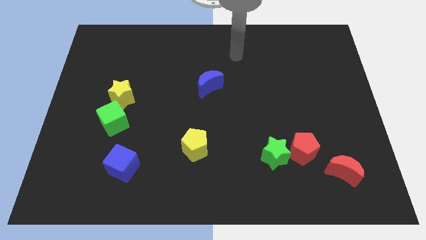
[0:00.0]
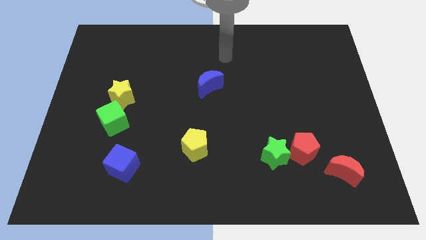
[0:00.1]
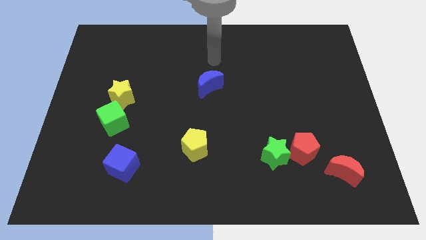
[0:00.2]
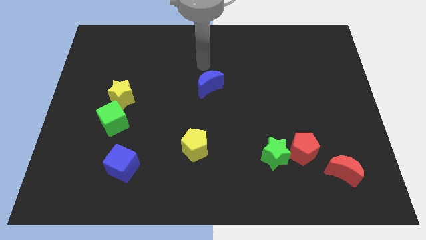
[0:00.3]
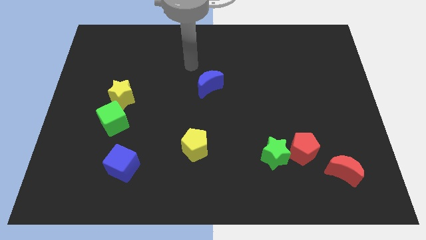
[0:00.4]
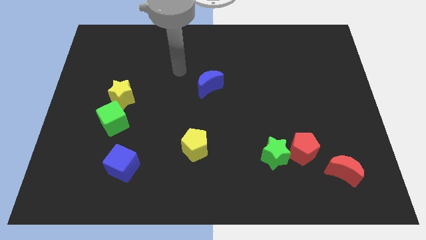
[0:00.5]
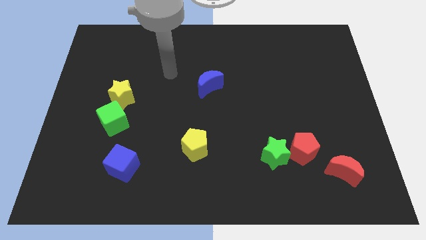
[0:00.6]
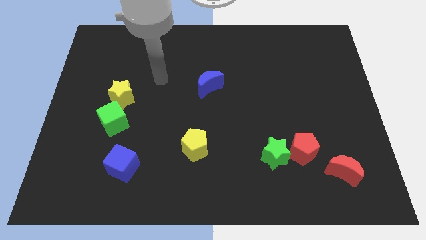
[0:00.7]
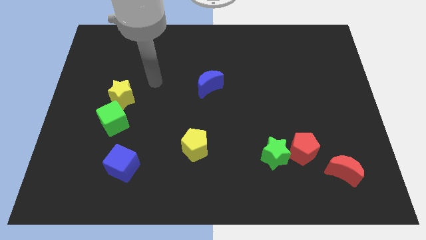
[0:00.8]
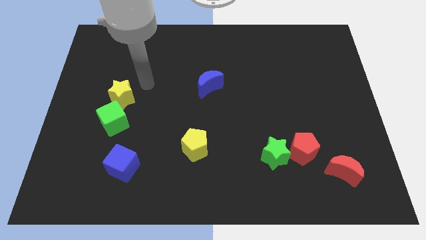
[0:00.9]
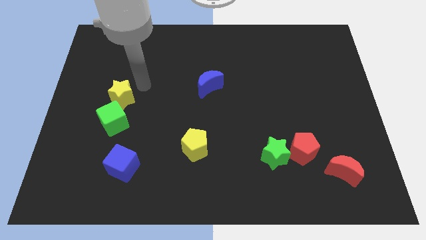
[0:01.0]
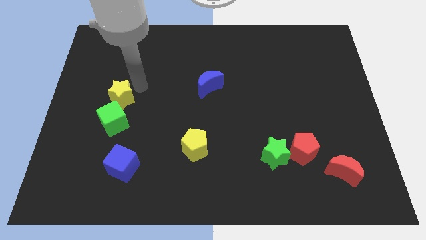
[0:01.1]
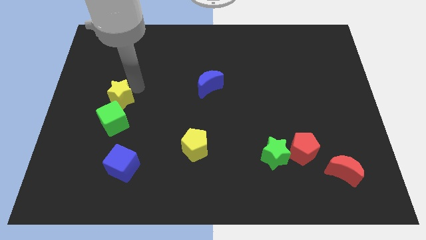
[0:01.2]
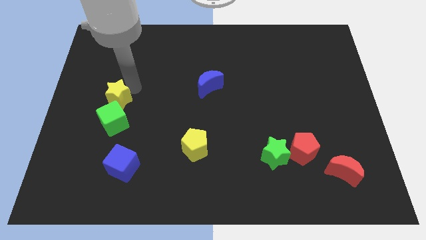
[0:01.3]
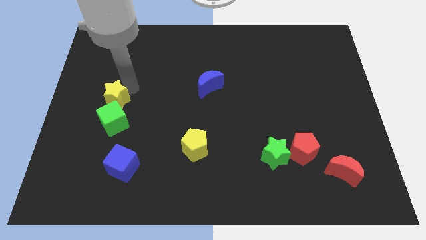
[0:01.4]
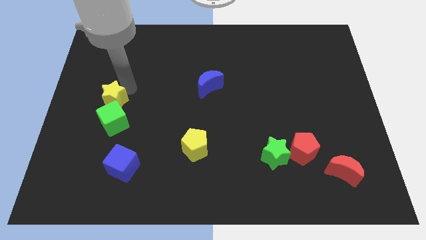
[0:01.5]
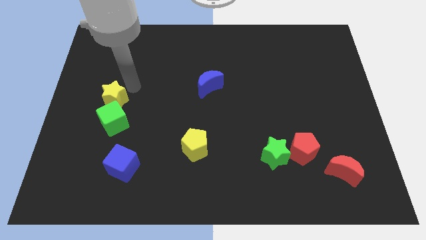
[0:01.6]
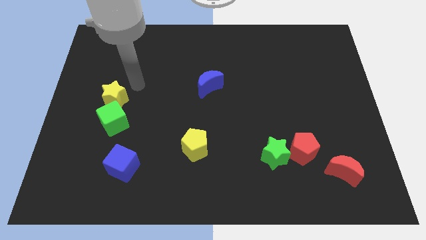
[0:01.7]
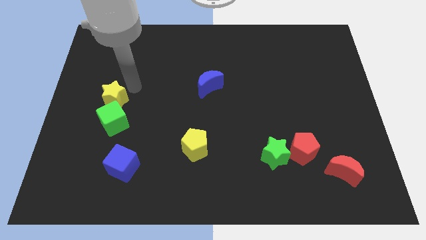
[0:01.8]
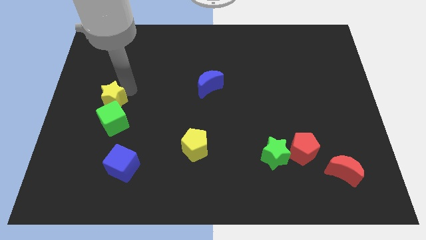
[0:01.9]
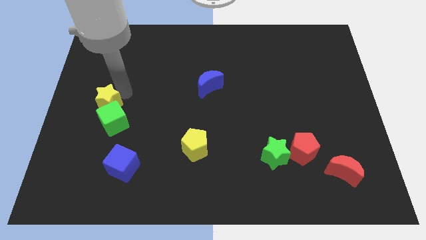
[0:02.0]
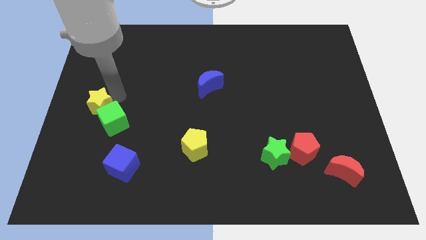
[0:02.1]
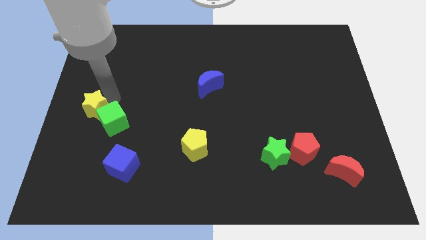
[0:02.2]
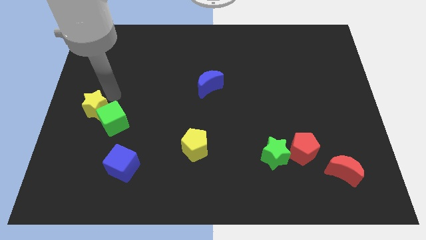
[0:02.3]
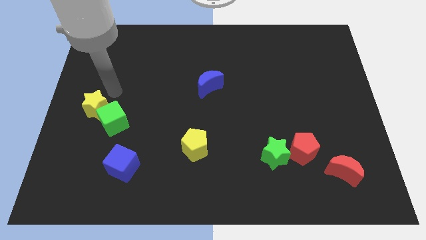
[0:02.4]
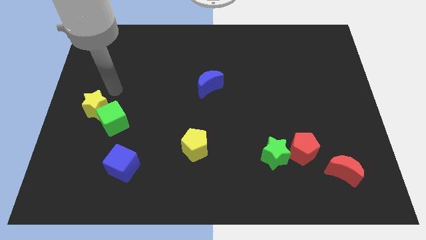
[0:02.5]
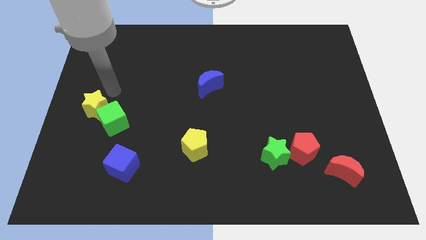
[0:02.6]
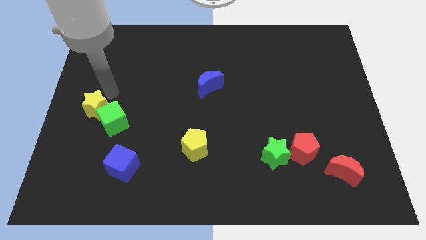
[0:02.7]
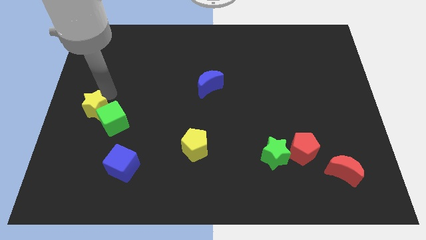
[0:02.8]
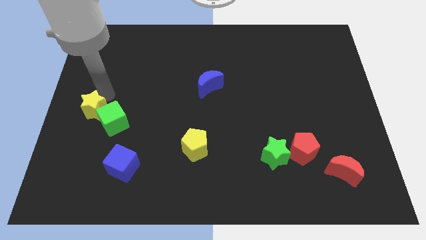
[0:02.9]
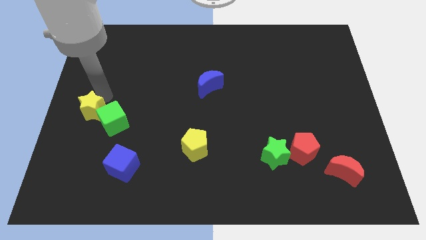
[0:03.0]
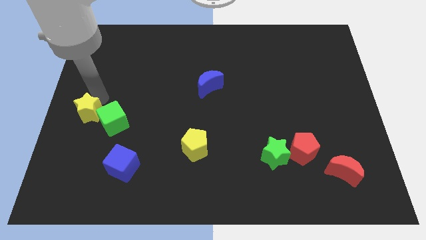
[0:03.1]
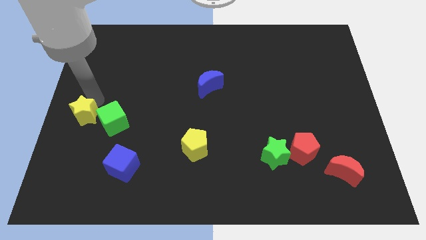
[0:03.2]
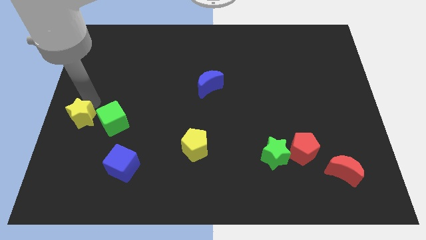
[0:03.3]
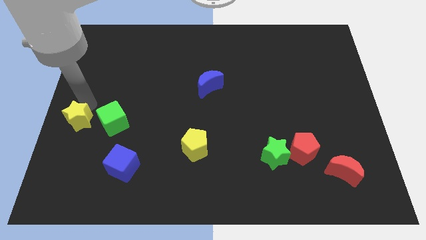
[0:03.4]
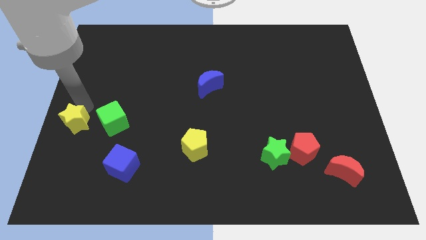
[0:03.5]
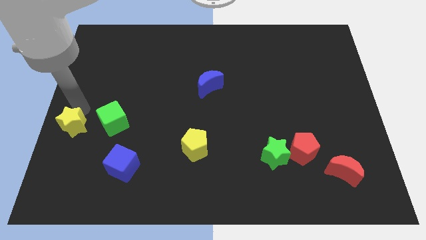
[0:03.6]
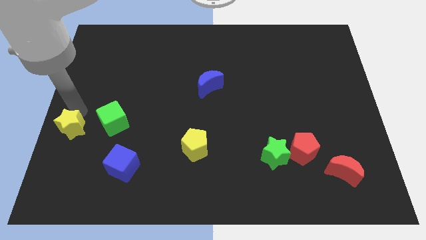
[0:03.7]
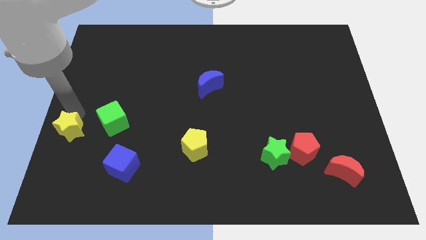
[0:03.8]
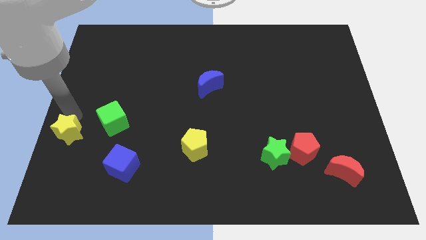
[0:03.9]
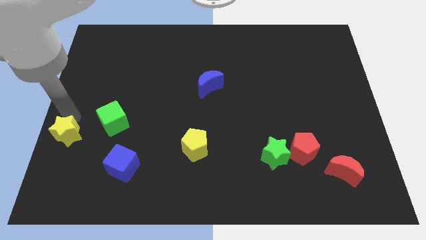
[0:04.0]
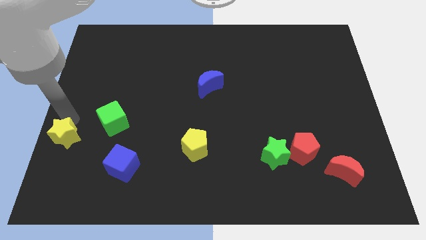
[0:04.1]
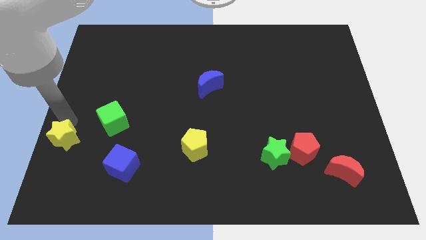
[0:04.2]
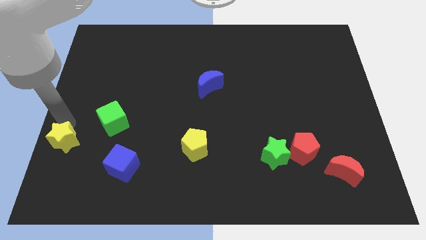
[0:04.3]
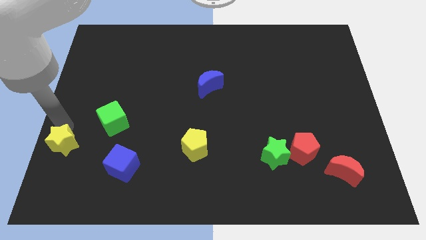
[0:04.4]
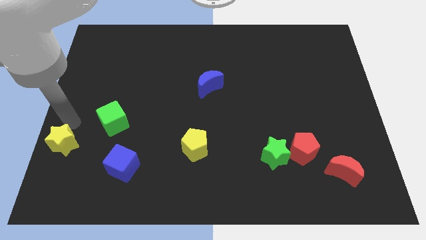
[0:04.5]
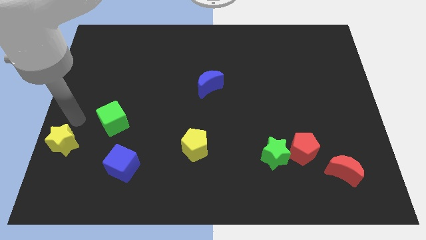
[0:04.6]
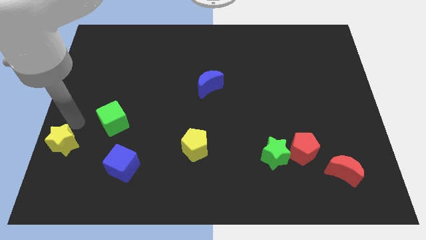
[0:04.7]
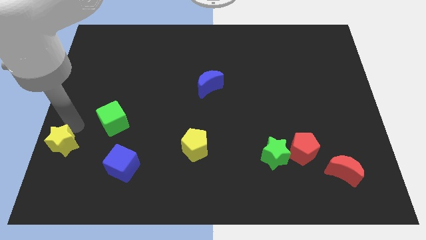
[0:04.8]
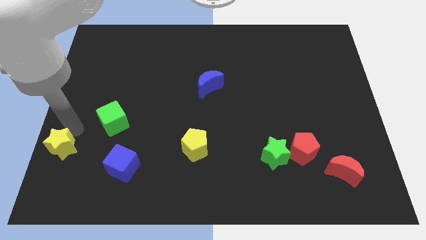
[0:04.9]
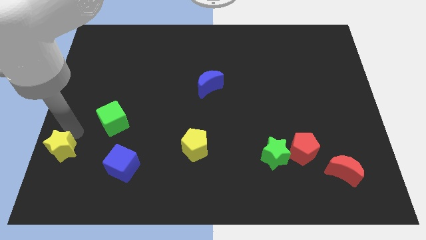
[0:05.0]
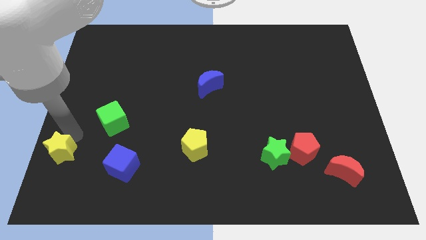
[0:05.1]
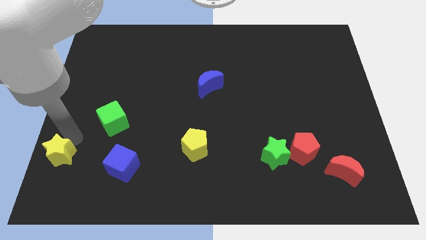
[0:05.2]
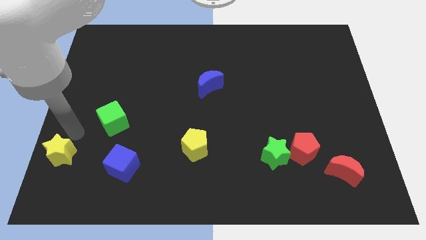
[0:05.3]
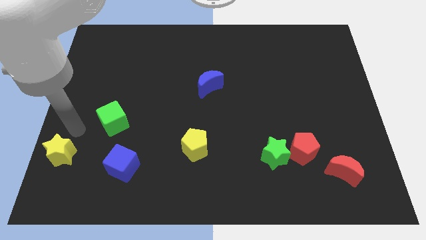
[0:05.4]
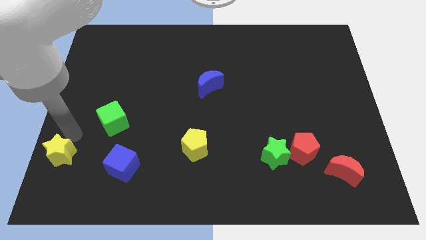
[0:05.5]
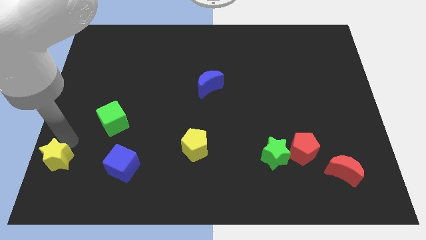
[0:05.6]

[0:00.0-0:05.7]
move the yellow star to the bottom left corner

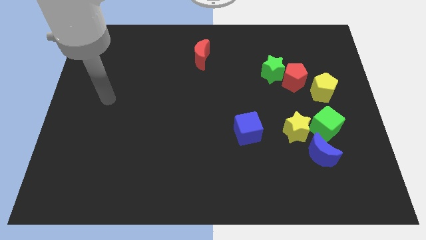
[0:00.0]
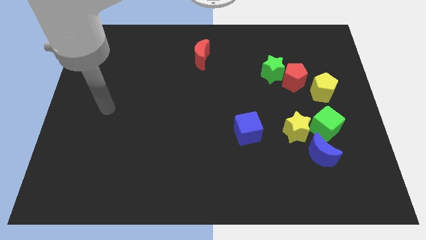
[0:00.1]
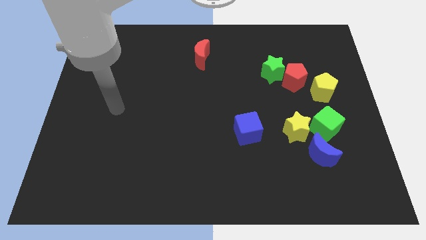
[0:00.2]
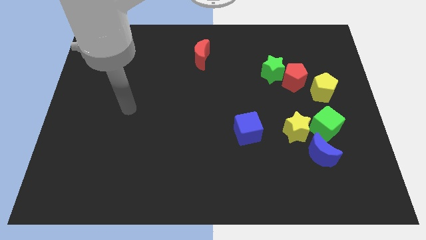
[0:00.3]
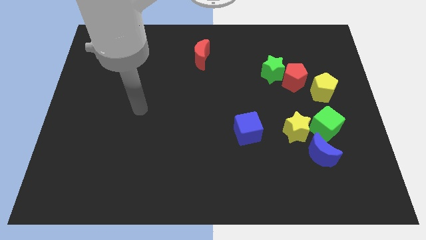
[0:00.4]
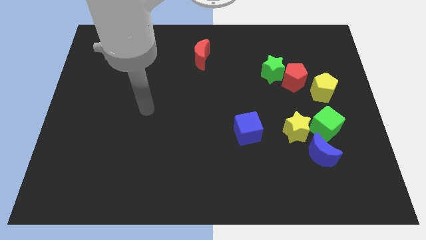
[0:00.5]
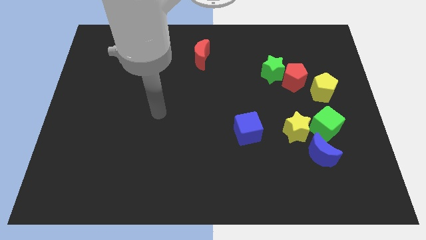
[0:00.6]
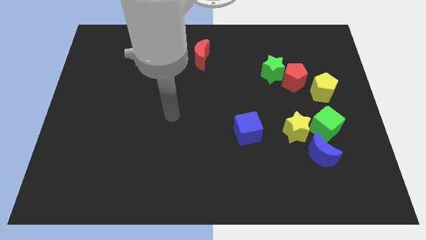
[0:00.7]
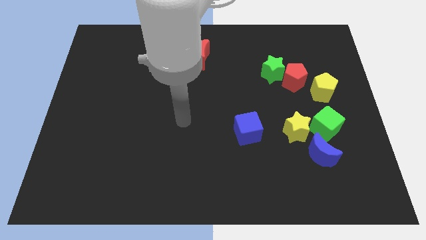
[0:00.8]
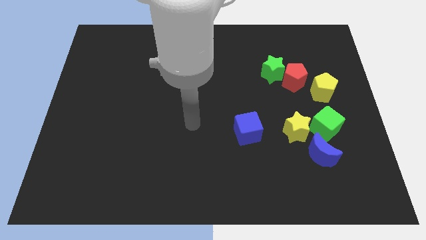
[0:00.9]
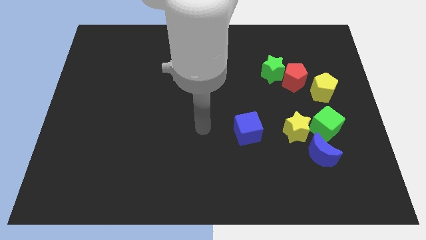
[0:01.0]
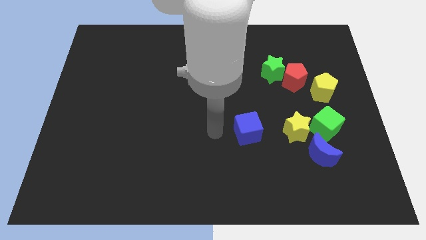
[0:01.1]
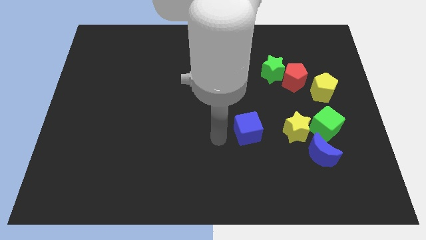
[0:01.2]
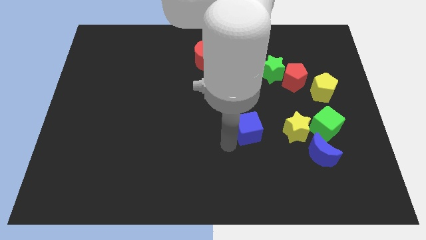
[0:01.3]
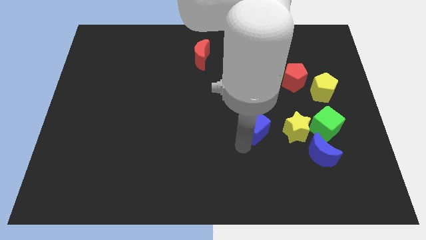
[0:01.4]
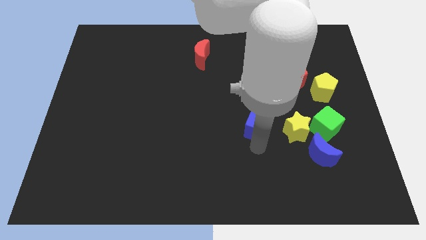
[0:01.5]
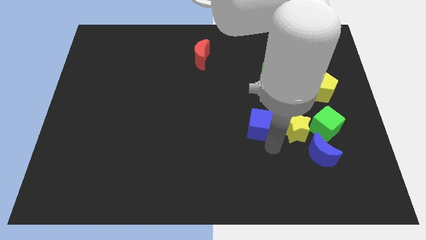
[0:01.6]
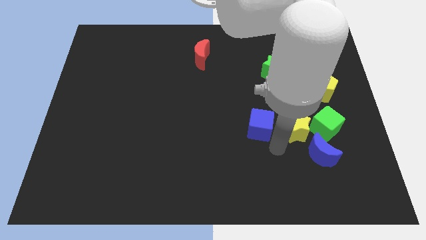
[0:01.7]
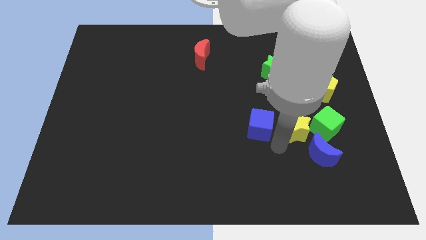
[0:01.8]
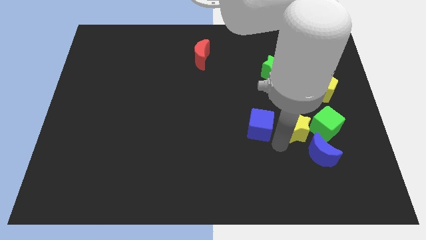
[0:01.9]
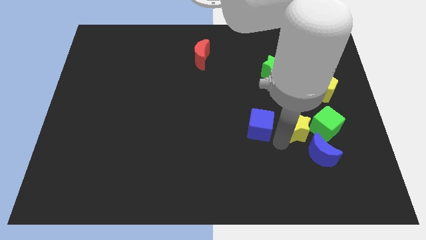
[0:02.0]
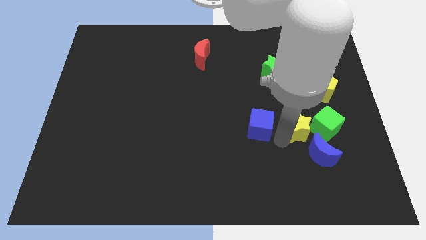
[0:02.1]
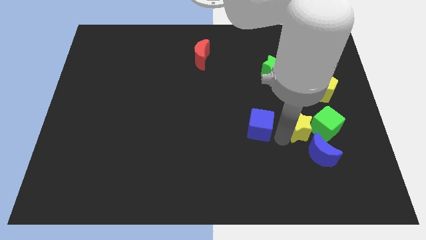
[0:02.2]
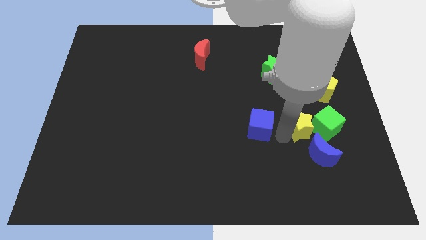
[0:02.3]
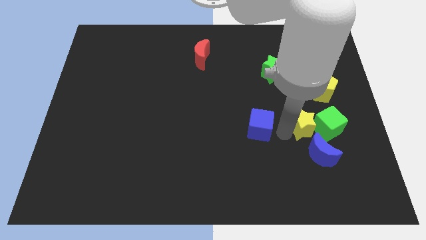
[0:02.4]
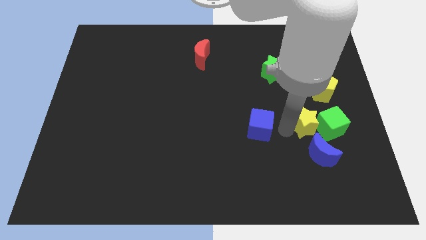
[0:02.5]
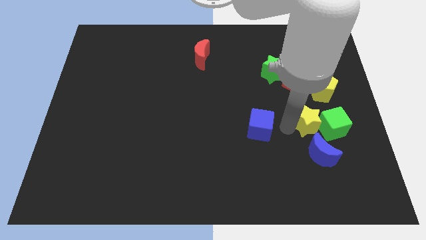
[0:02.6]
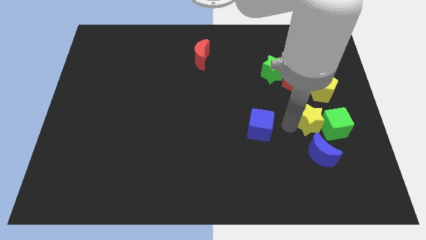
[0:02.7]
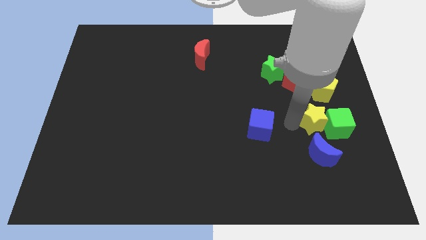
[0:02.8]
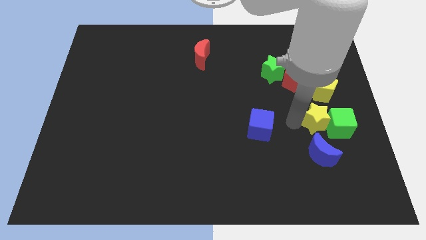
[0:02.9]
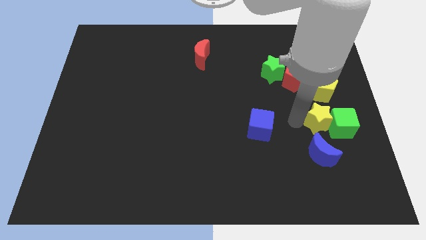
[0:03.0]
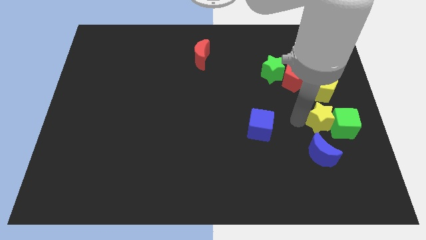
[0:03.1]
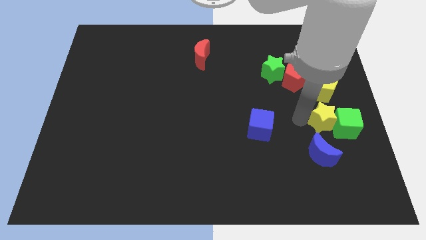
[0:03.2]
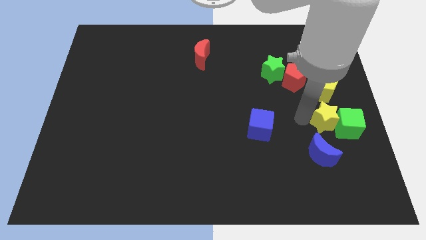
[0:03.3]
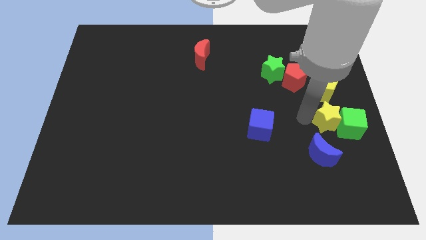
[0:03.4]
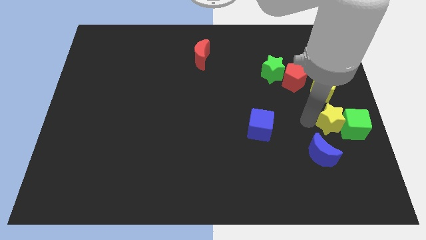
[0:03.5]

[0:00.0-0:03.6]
put the yellow star to the right side of the board
